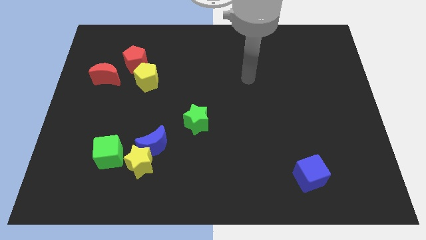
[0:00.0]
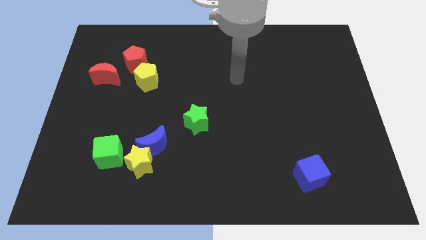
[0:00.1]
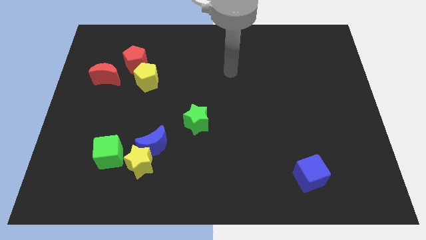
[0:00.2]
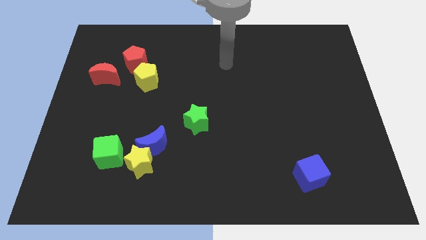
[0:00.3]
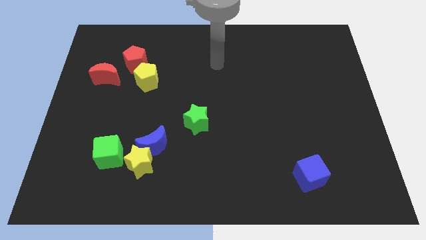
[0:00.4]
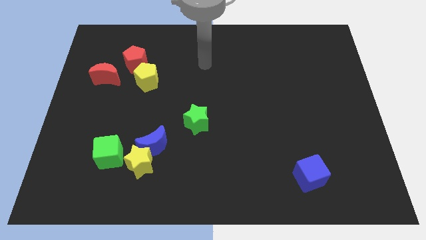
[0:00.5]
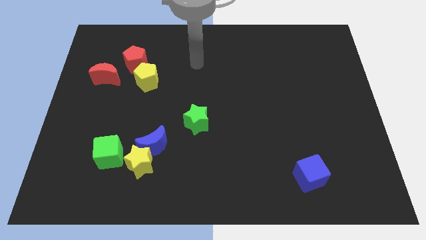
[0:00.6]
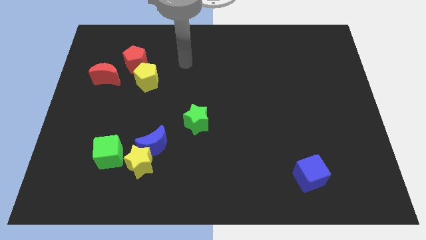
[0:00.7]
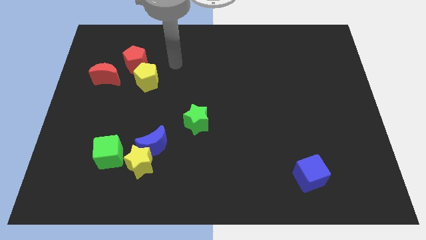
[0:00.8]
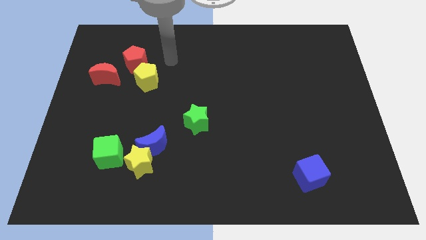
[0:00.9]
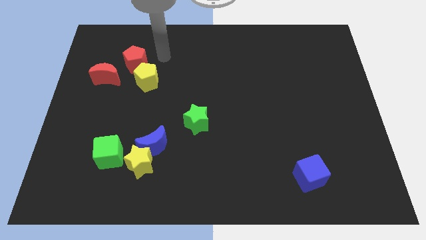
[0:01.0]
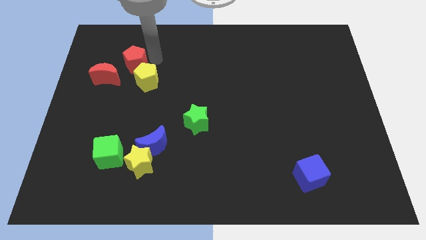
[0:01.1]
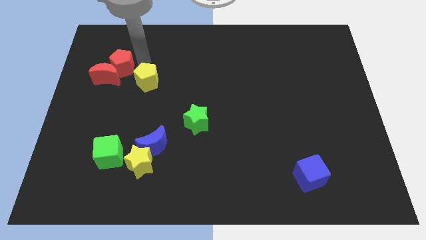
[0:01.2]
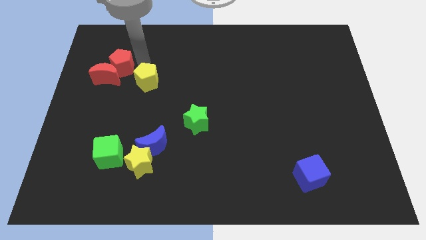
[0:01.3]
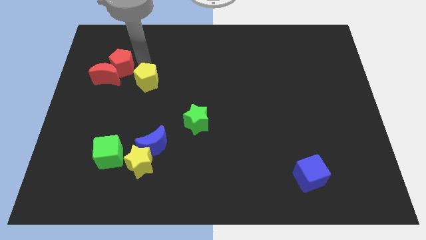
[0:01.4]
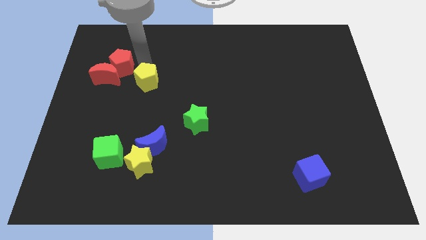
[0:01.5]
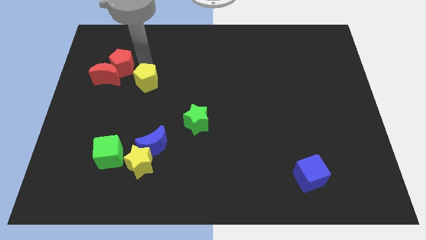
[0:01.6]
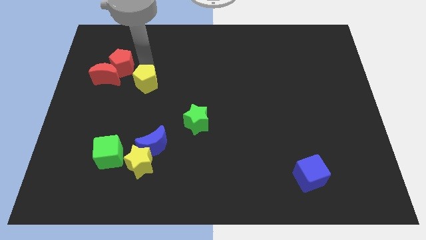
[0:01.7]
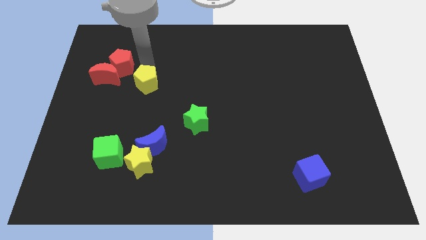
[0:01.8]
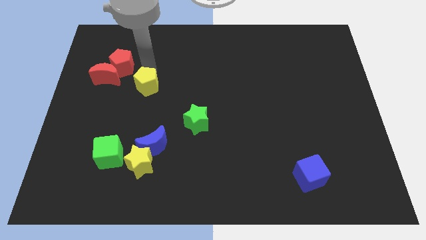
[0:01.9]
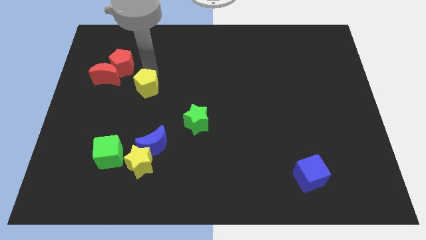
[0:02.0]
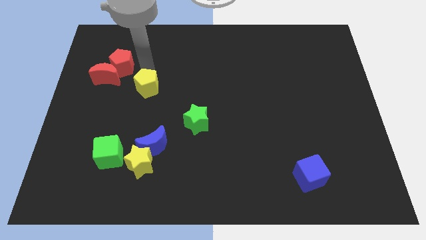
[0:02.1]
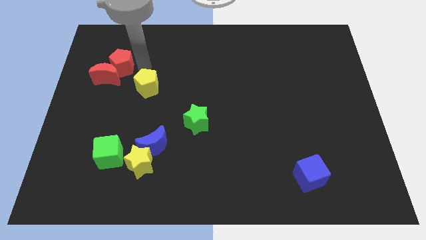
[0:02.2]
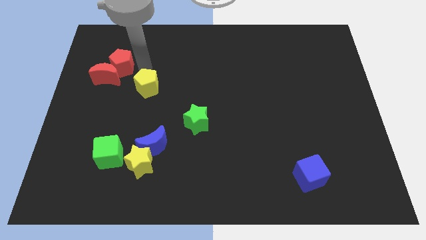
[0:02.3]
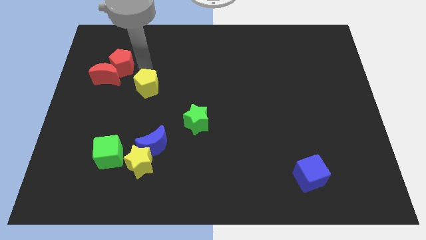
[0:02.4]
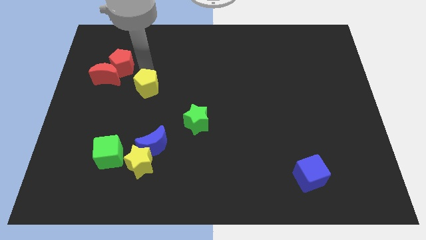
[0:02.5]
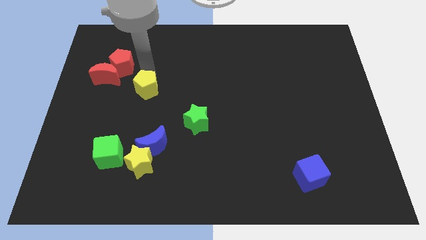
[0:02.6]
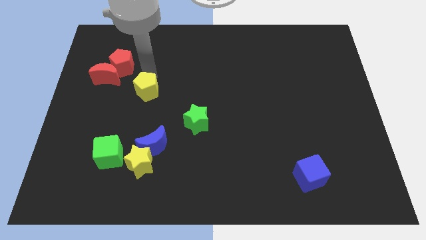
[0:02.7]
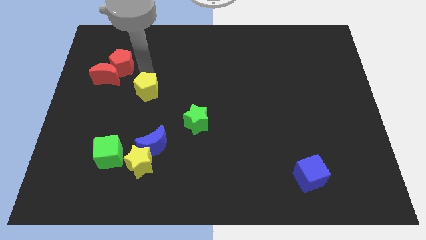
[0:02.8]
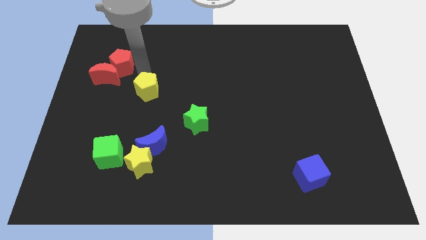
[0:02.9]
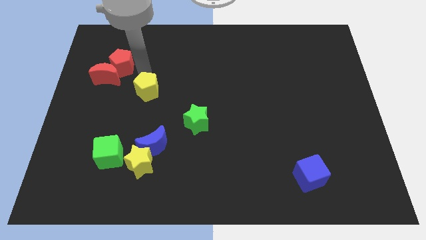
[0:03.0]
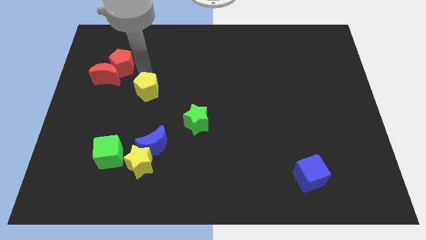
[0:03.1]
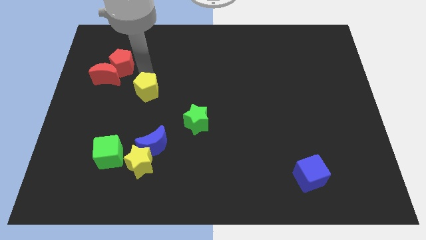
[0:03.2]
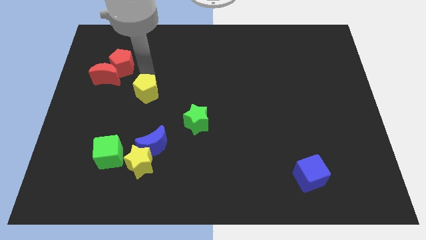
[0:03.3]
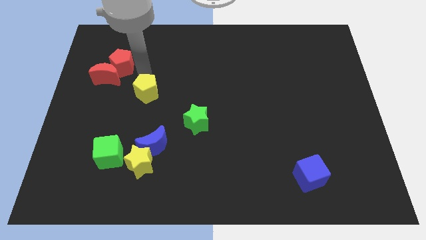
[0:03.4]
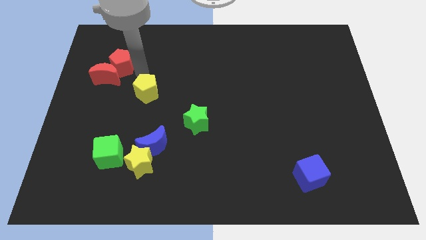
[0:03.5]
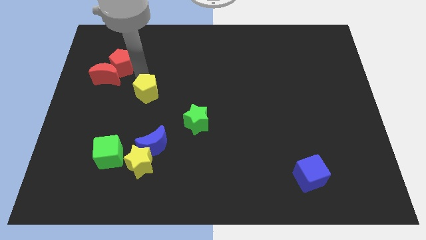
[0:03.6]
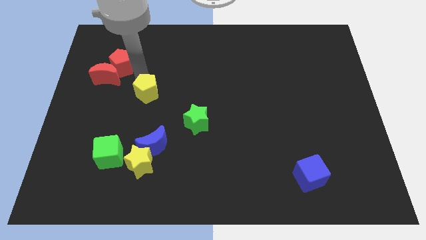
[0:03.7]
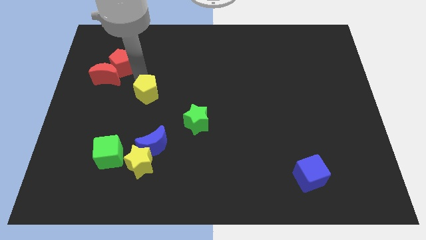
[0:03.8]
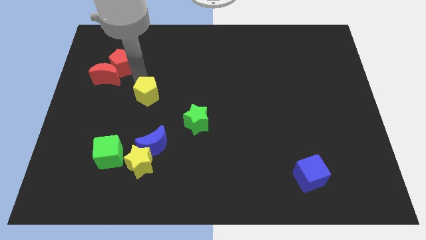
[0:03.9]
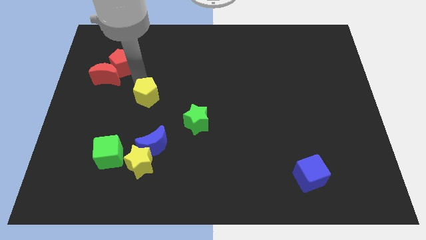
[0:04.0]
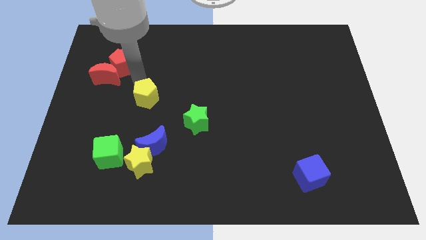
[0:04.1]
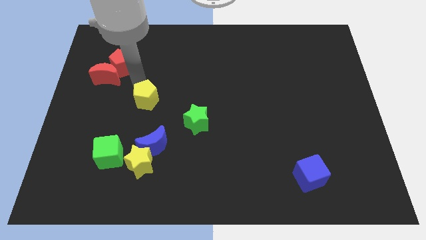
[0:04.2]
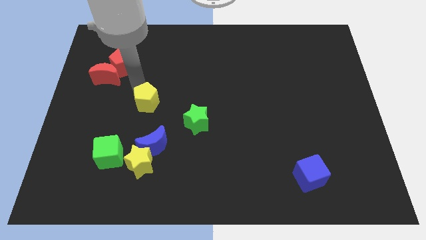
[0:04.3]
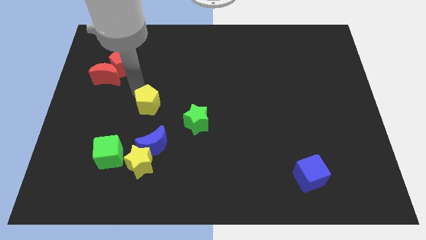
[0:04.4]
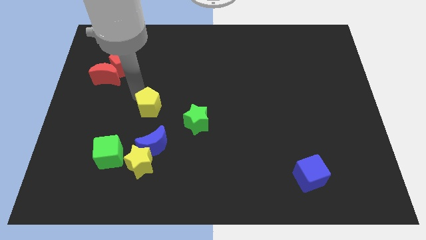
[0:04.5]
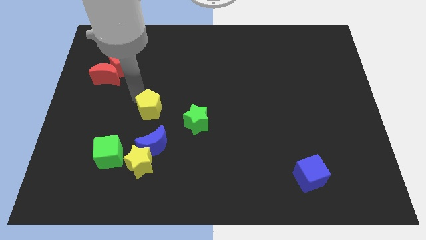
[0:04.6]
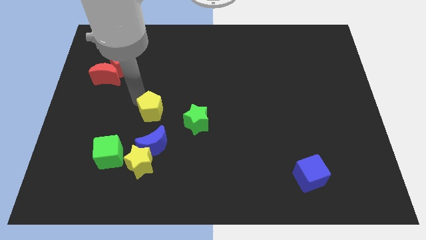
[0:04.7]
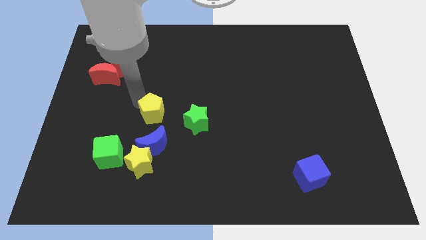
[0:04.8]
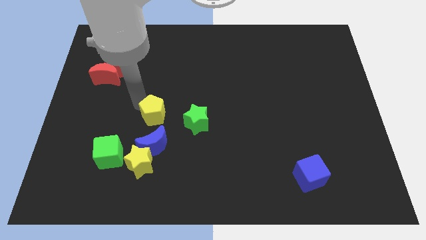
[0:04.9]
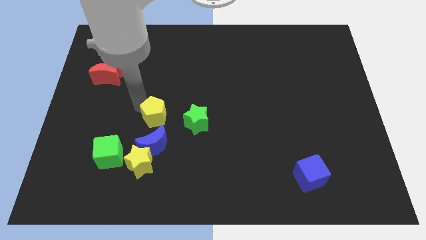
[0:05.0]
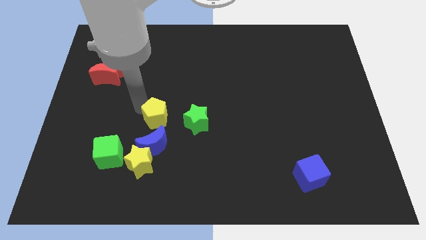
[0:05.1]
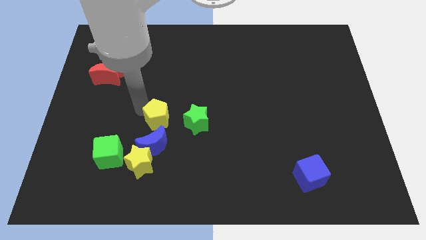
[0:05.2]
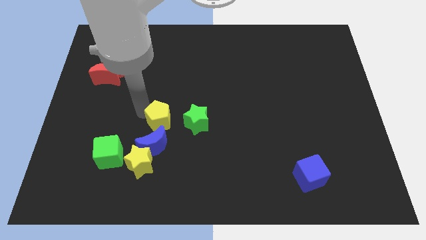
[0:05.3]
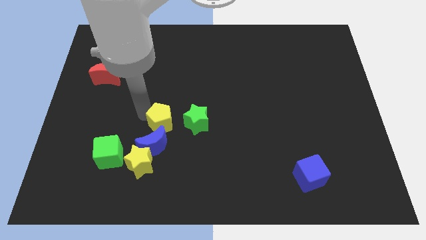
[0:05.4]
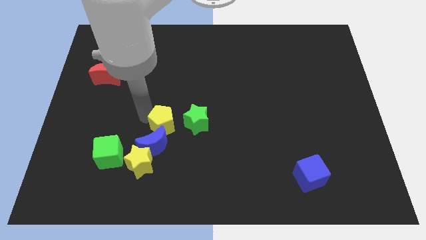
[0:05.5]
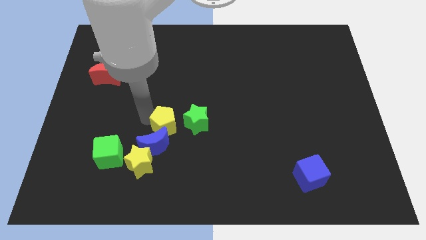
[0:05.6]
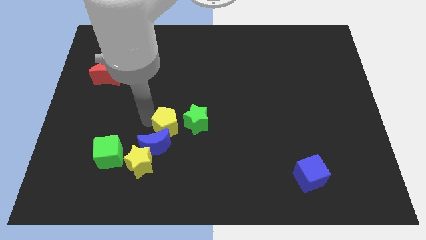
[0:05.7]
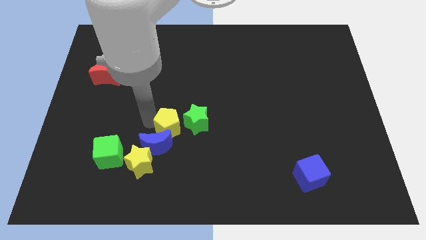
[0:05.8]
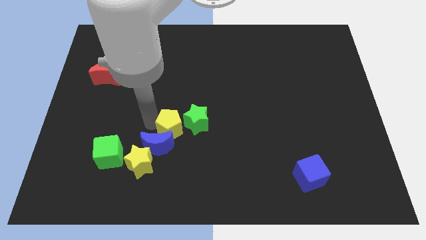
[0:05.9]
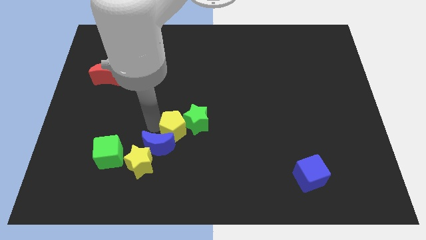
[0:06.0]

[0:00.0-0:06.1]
slide the yellow pentagon just right of the blue moon

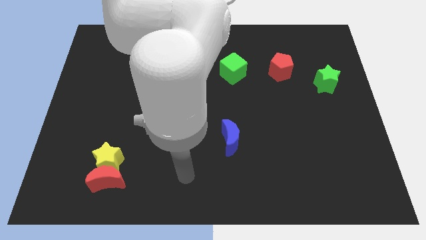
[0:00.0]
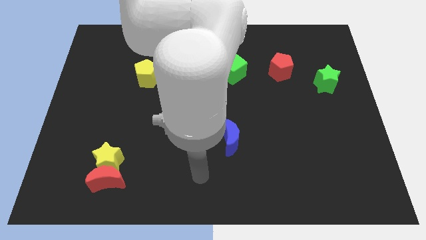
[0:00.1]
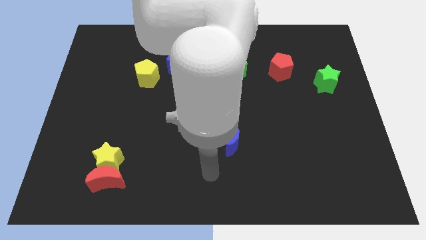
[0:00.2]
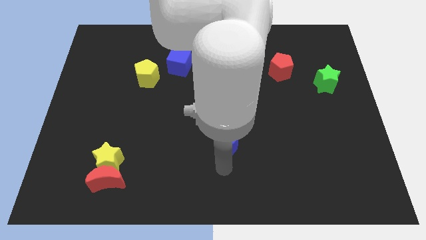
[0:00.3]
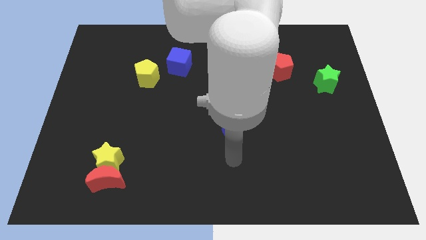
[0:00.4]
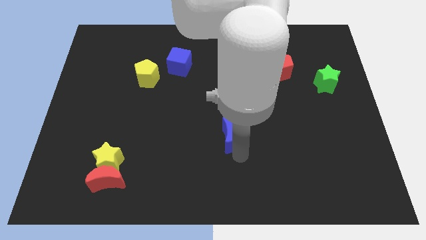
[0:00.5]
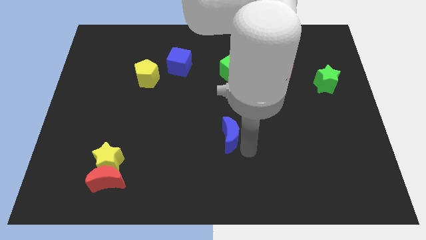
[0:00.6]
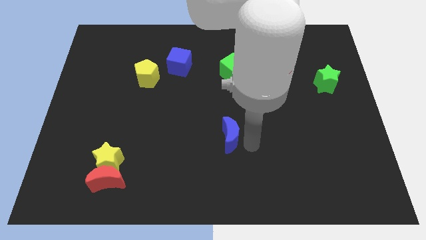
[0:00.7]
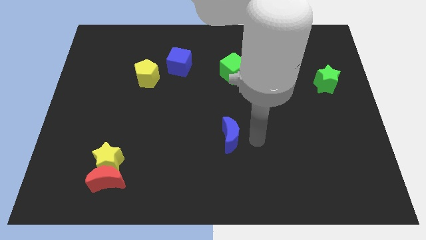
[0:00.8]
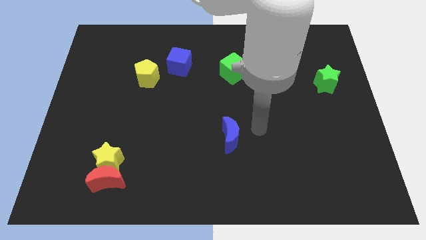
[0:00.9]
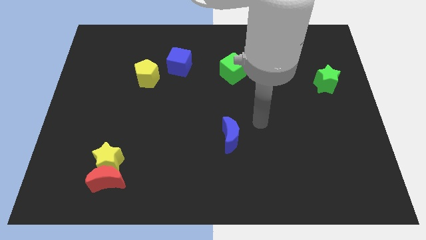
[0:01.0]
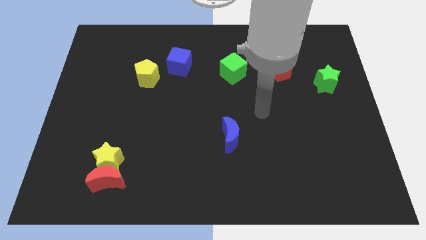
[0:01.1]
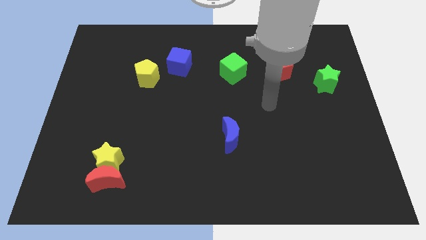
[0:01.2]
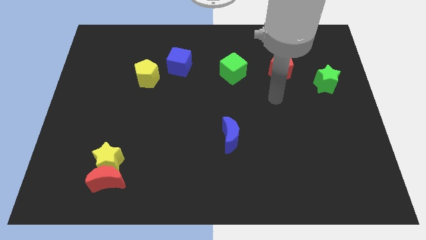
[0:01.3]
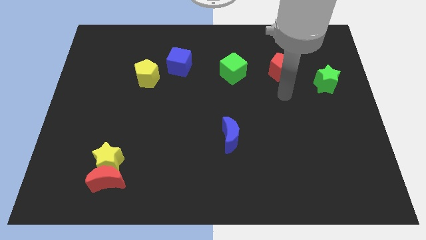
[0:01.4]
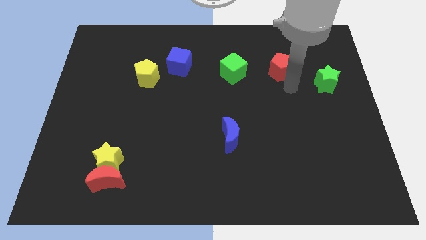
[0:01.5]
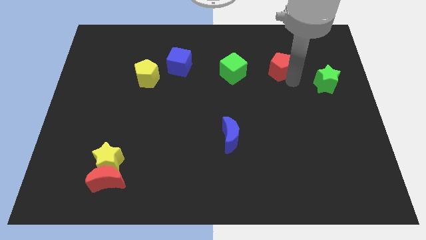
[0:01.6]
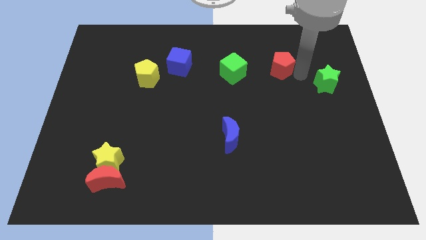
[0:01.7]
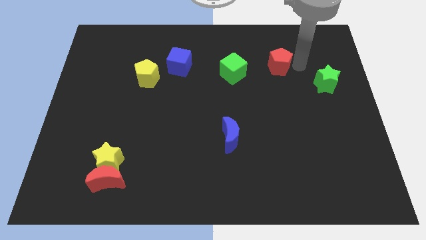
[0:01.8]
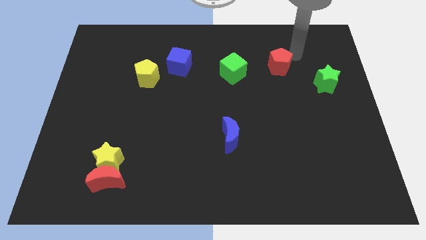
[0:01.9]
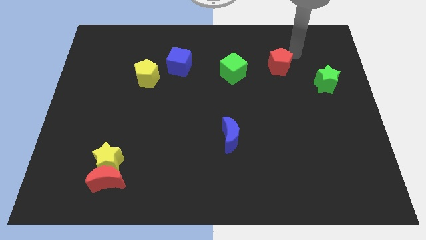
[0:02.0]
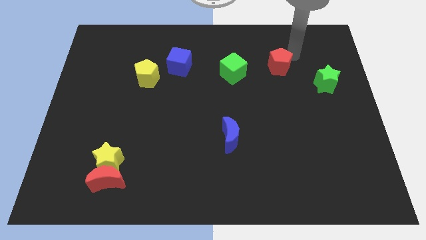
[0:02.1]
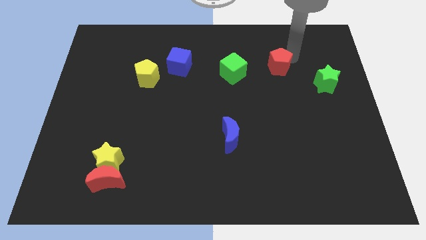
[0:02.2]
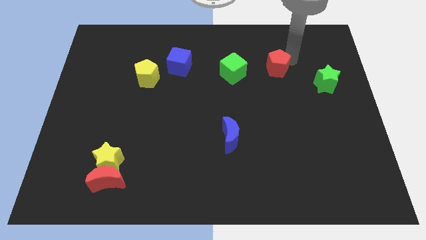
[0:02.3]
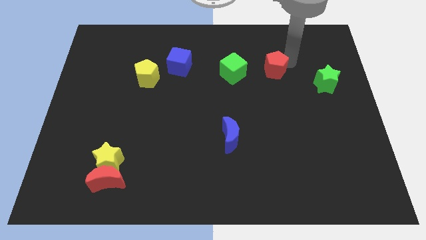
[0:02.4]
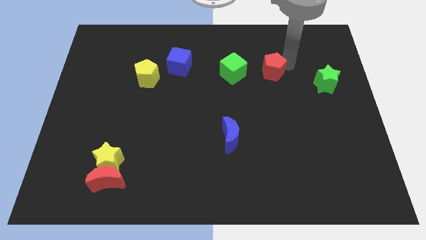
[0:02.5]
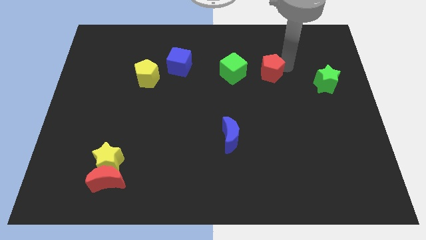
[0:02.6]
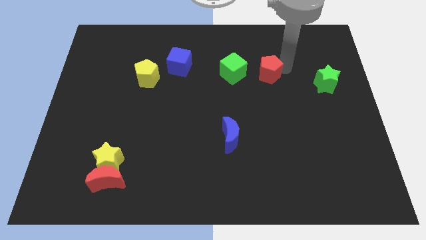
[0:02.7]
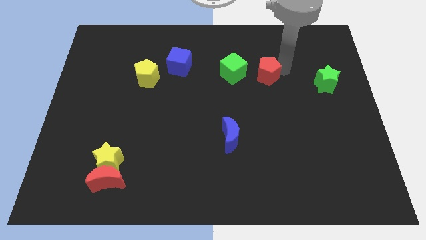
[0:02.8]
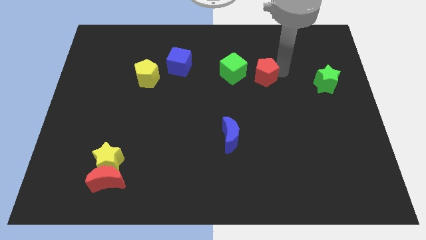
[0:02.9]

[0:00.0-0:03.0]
move the red pentagon to the bottom right side of the green cube
